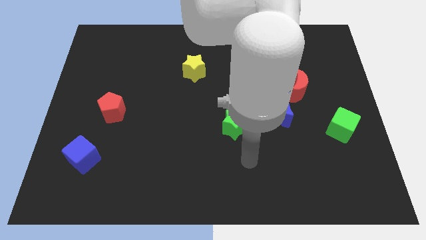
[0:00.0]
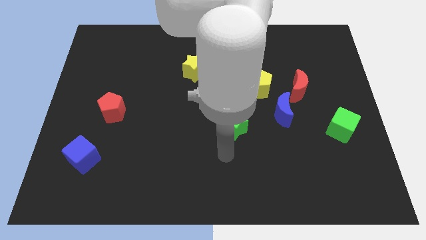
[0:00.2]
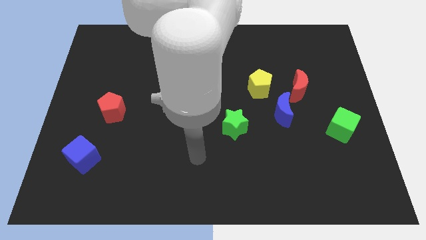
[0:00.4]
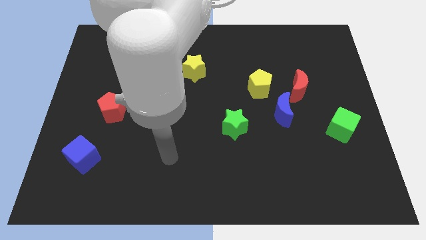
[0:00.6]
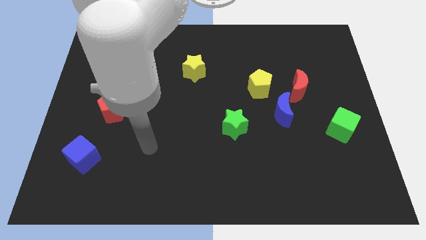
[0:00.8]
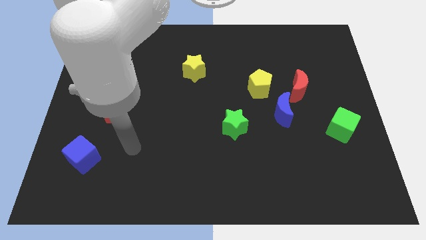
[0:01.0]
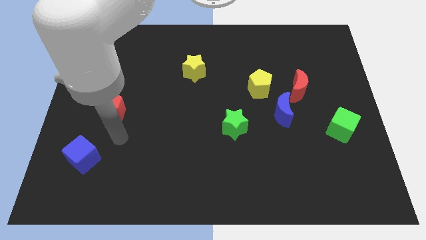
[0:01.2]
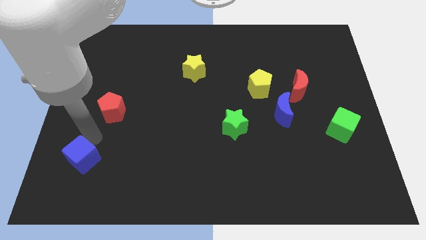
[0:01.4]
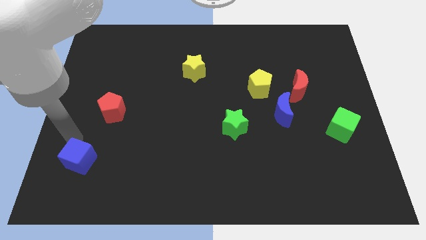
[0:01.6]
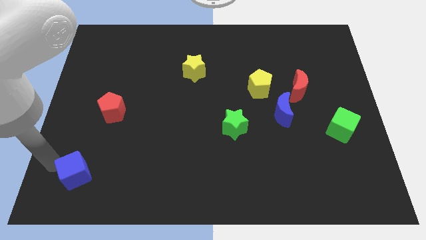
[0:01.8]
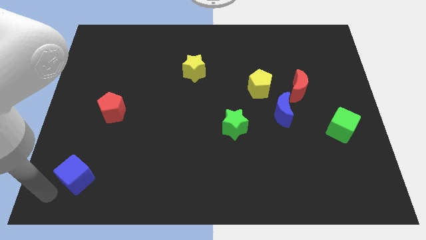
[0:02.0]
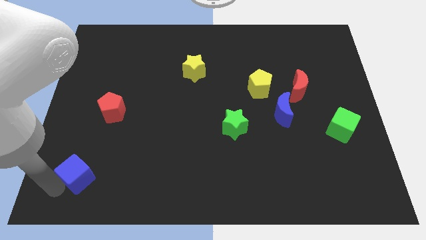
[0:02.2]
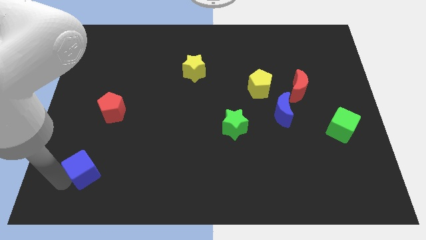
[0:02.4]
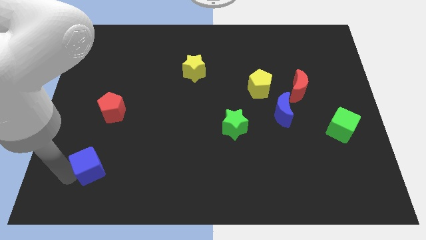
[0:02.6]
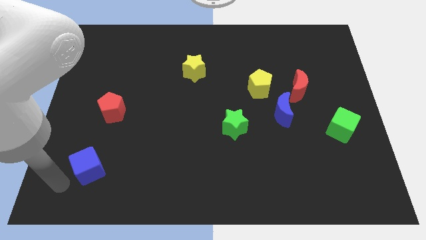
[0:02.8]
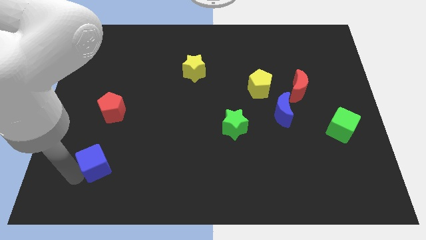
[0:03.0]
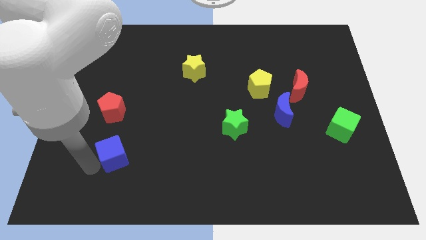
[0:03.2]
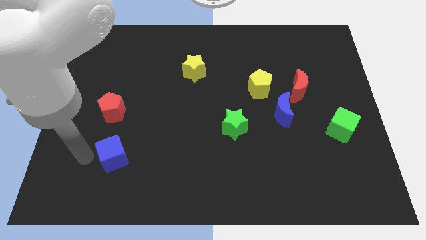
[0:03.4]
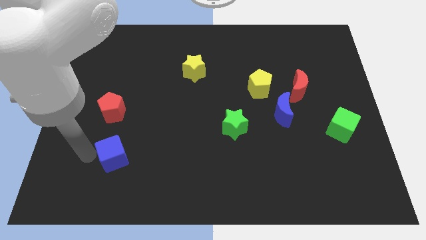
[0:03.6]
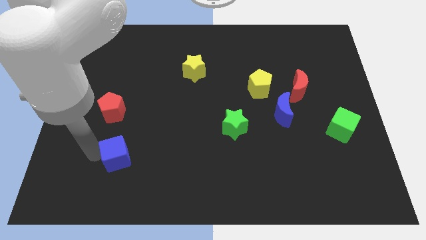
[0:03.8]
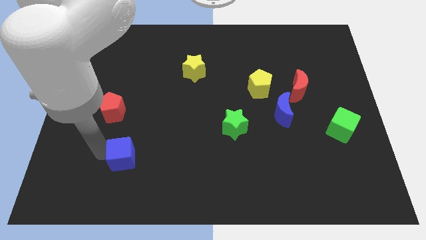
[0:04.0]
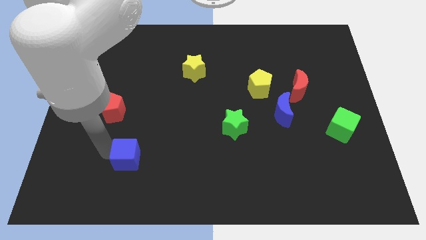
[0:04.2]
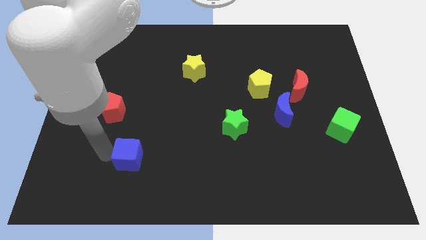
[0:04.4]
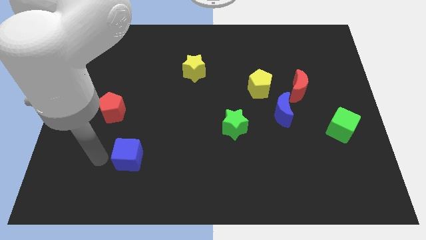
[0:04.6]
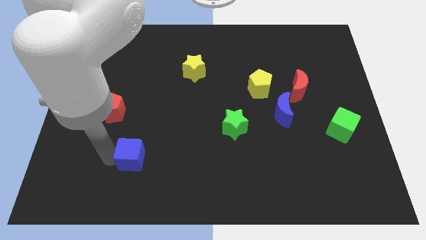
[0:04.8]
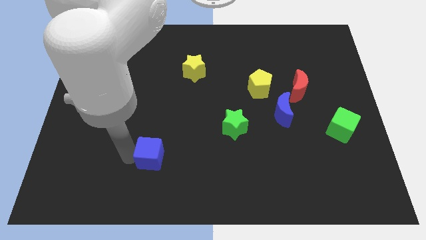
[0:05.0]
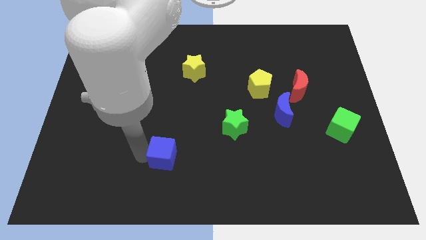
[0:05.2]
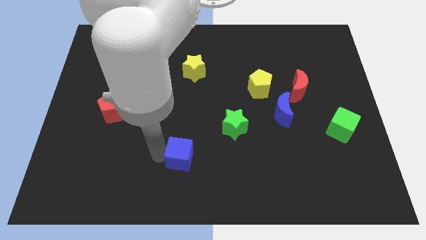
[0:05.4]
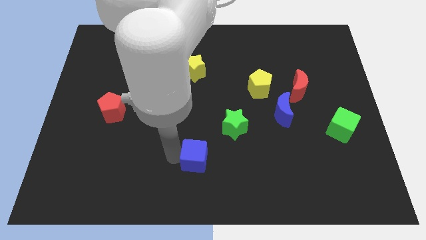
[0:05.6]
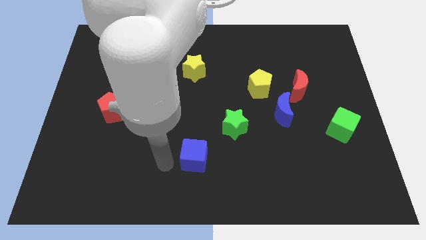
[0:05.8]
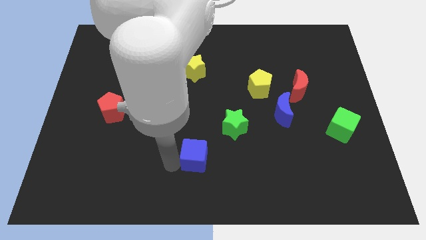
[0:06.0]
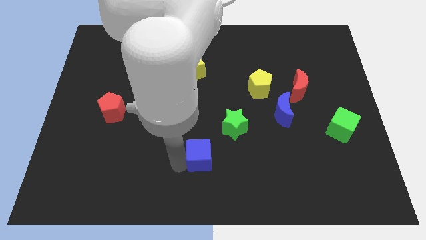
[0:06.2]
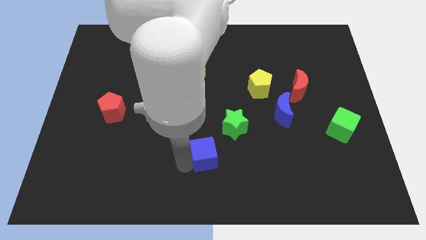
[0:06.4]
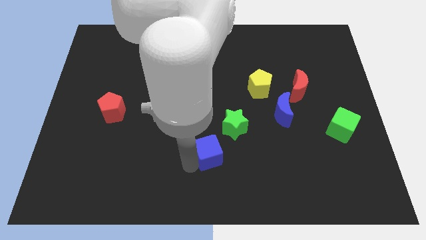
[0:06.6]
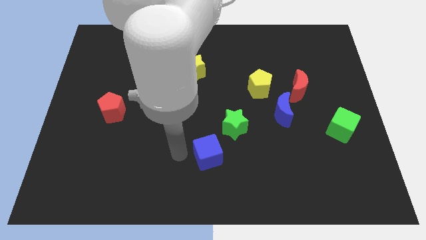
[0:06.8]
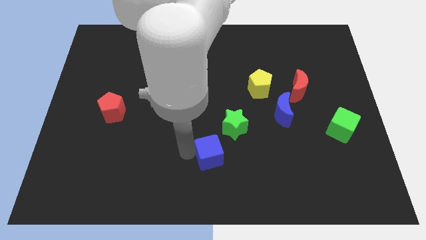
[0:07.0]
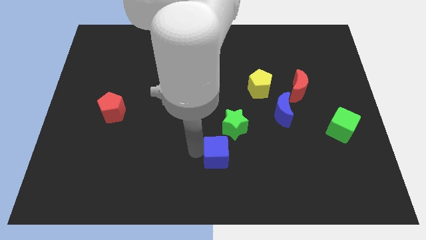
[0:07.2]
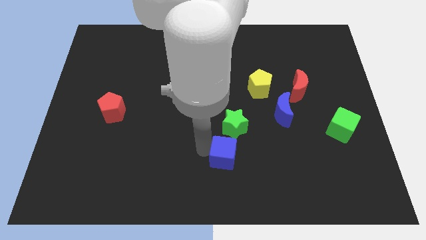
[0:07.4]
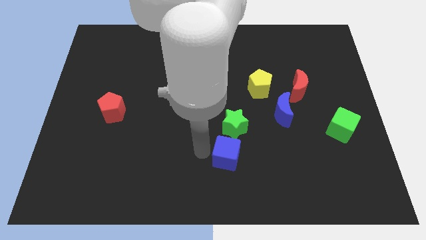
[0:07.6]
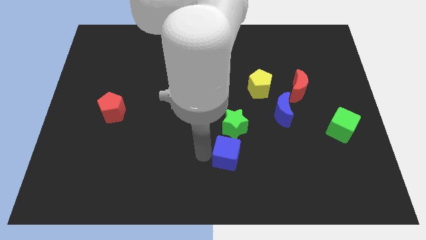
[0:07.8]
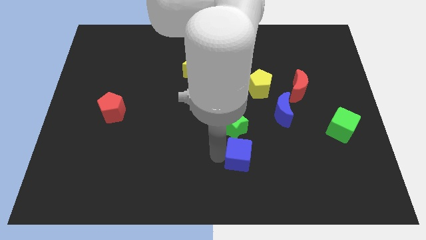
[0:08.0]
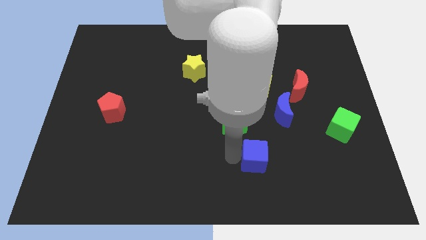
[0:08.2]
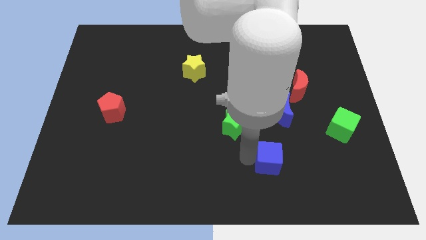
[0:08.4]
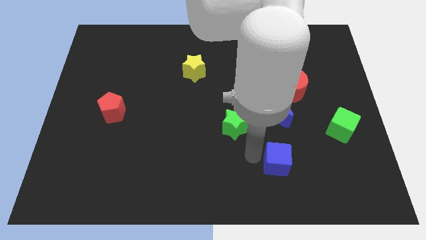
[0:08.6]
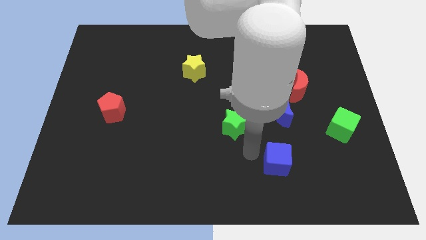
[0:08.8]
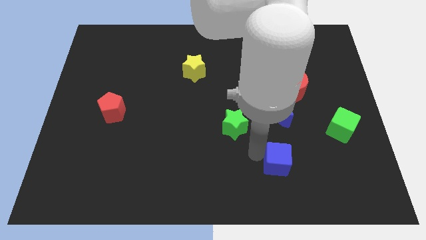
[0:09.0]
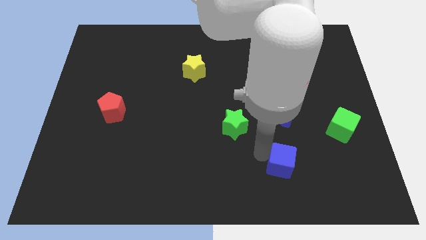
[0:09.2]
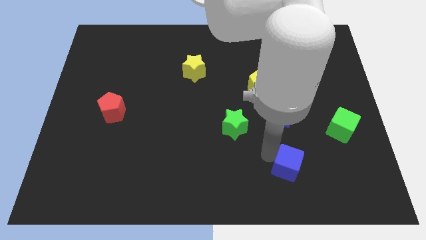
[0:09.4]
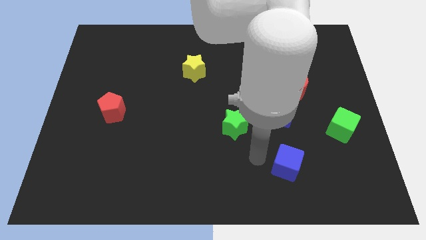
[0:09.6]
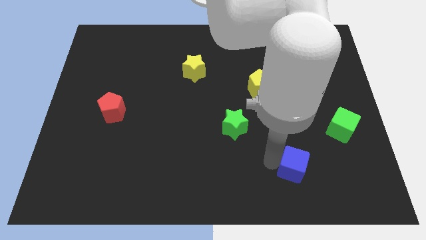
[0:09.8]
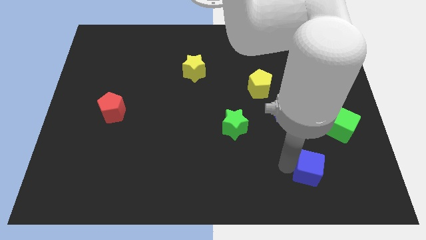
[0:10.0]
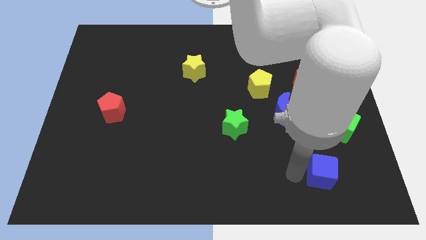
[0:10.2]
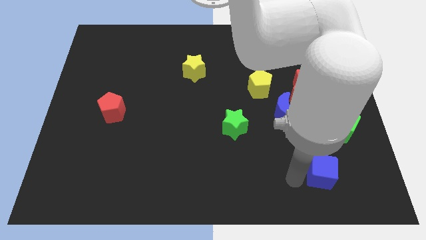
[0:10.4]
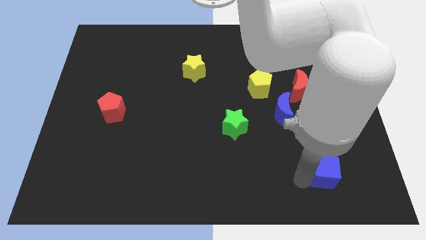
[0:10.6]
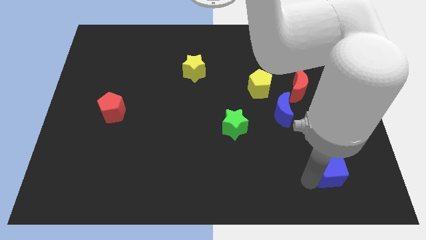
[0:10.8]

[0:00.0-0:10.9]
slide the blue cube to the bottom of the green cube

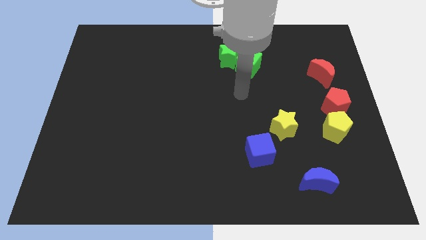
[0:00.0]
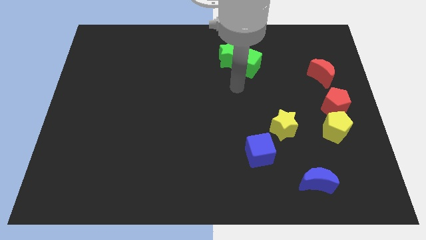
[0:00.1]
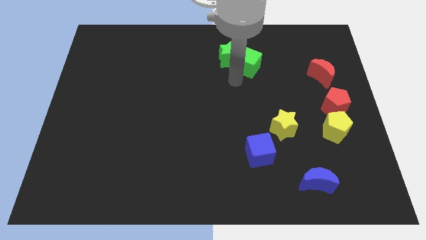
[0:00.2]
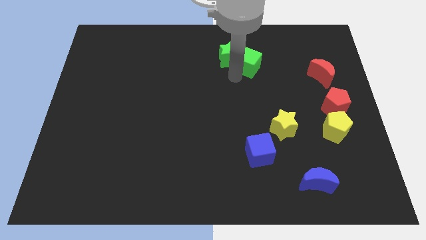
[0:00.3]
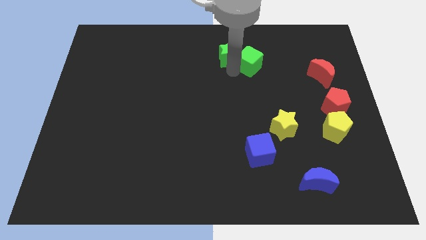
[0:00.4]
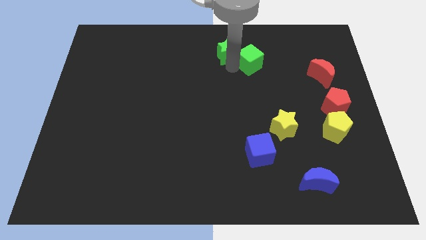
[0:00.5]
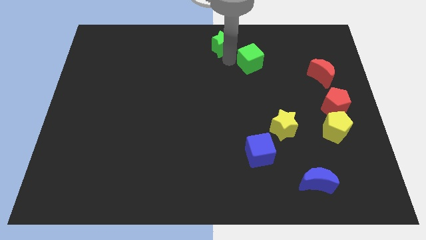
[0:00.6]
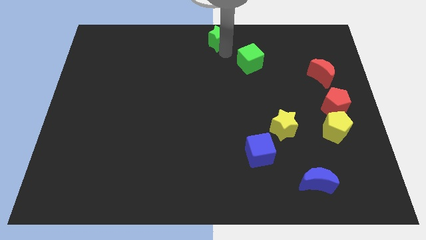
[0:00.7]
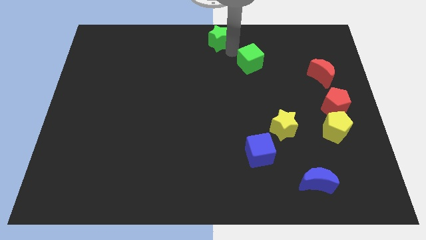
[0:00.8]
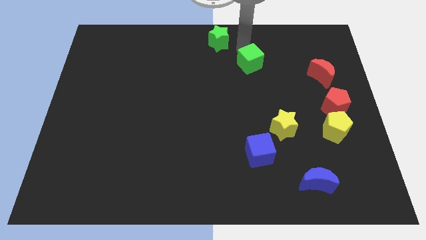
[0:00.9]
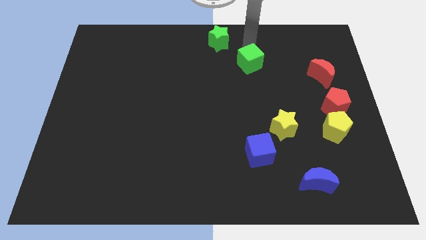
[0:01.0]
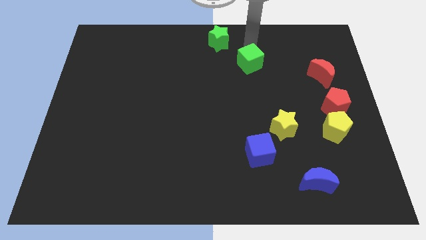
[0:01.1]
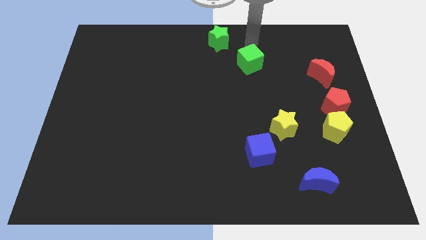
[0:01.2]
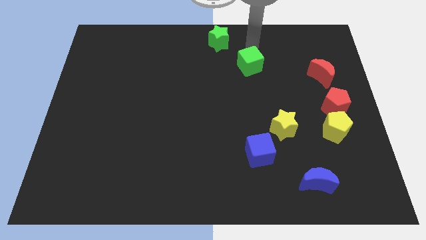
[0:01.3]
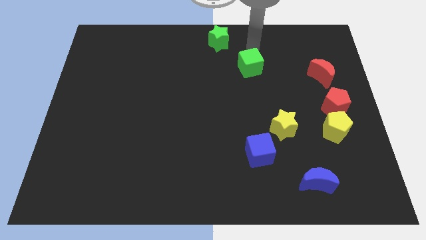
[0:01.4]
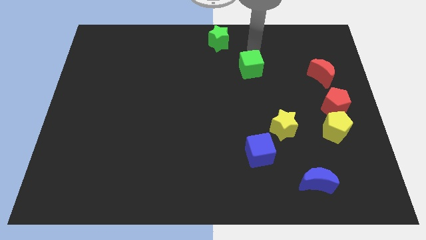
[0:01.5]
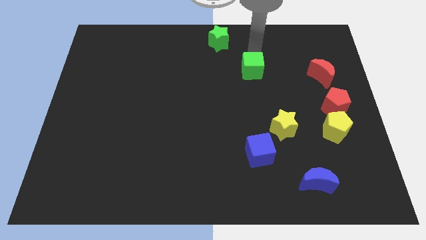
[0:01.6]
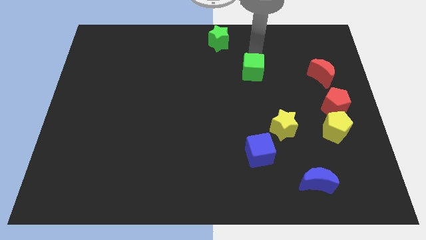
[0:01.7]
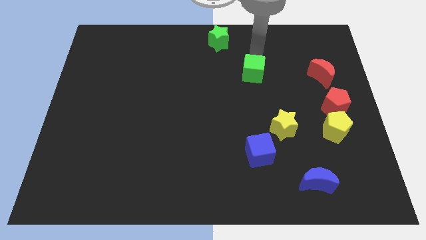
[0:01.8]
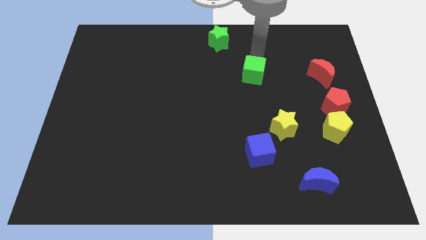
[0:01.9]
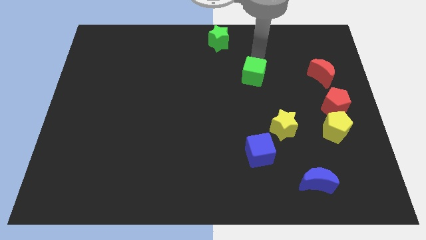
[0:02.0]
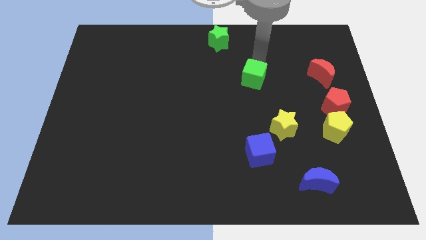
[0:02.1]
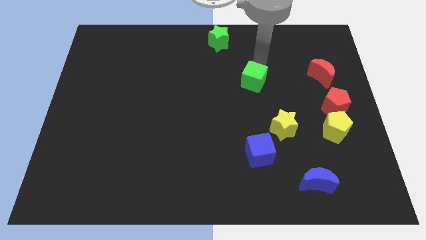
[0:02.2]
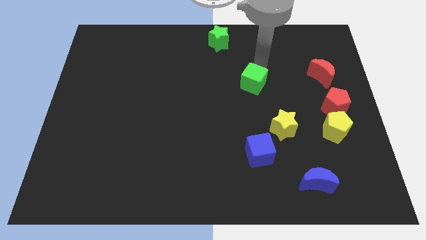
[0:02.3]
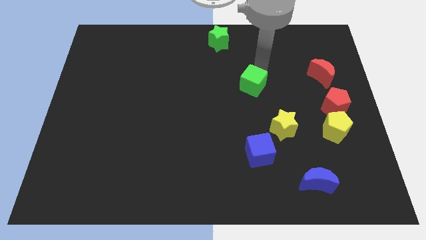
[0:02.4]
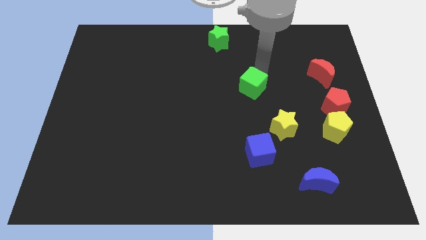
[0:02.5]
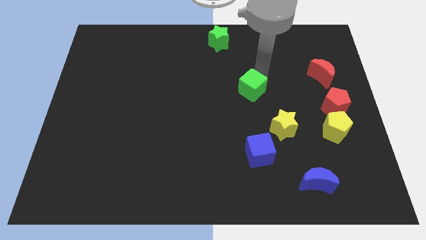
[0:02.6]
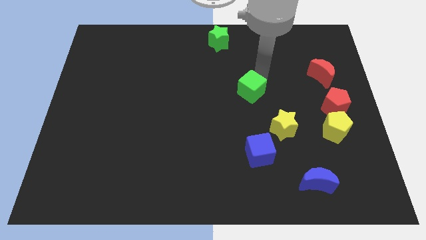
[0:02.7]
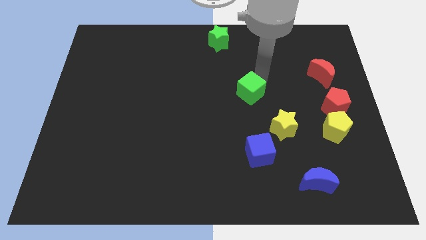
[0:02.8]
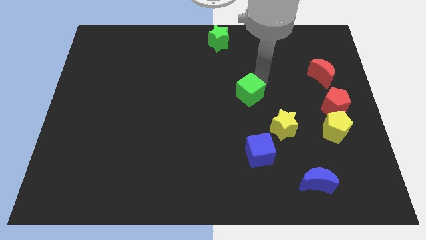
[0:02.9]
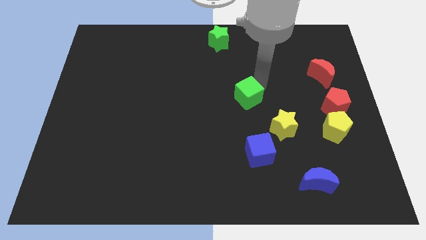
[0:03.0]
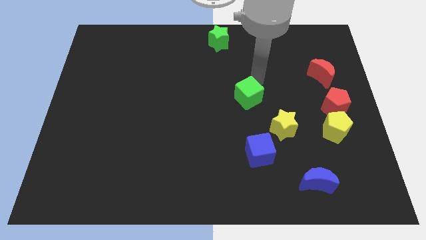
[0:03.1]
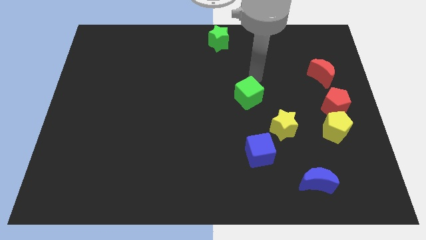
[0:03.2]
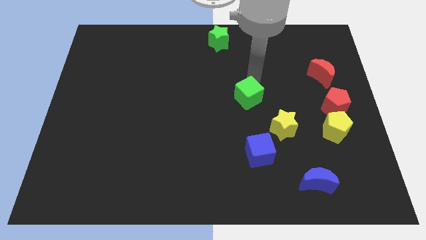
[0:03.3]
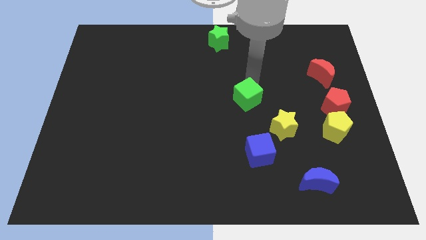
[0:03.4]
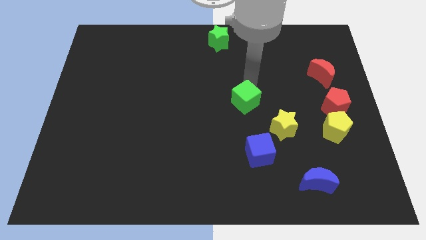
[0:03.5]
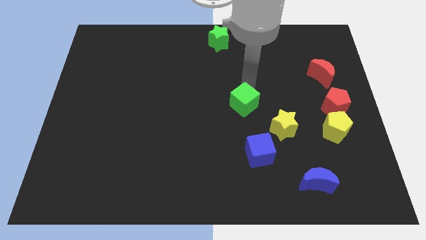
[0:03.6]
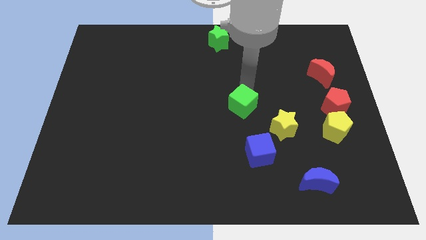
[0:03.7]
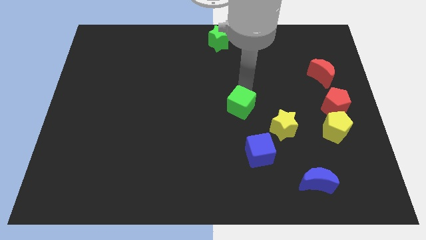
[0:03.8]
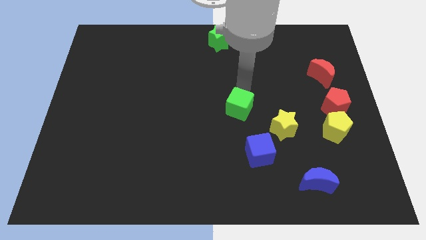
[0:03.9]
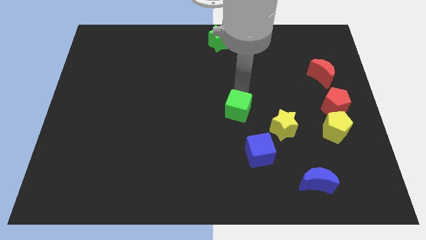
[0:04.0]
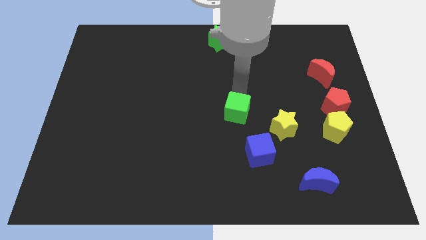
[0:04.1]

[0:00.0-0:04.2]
put the green cube left of the yellow star
